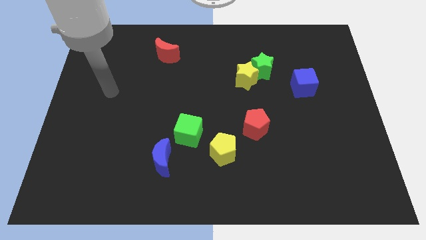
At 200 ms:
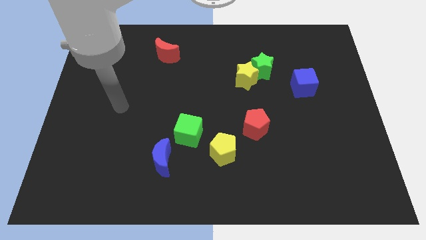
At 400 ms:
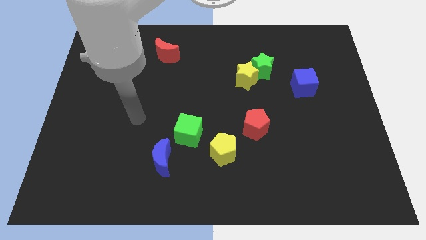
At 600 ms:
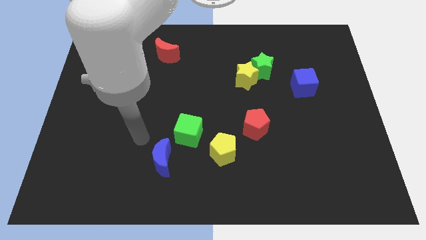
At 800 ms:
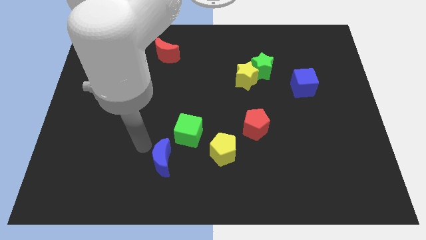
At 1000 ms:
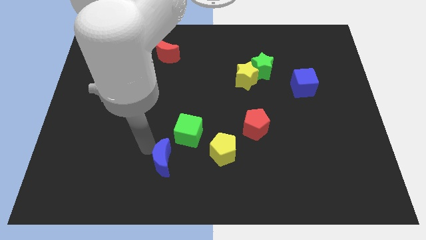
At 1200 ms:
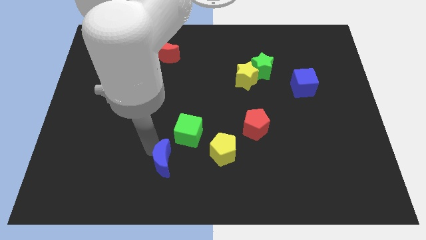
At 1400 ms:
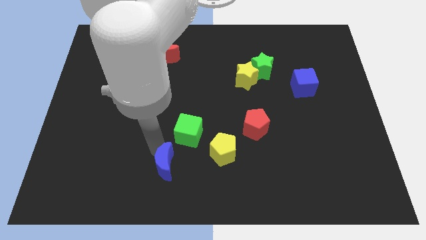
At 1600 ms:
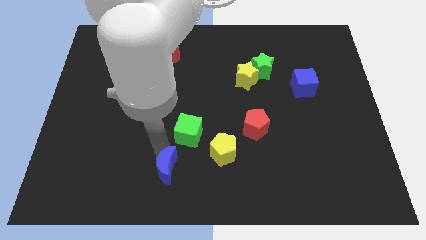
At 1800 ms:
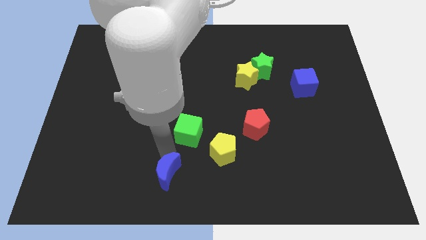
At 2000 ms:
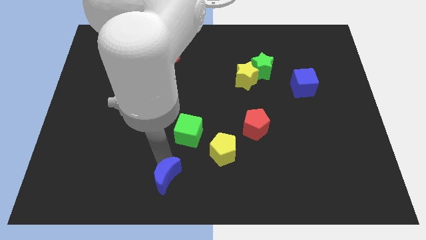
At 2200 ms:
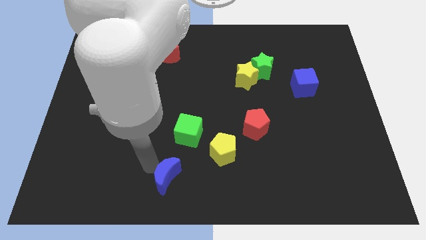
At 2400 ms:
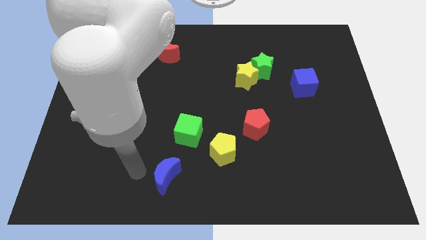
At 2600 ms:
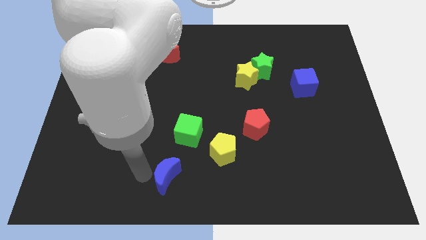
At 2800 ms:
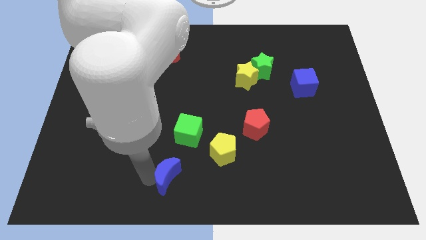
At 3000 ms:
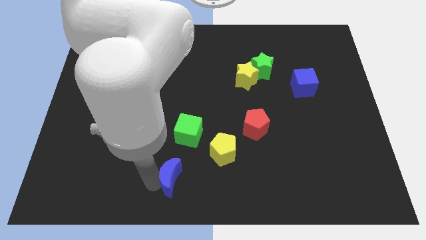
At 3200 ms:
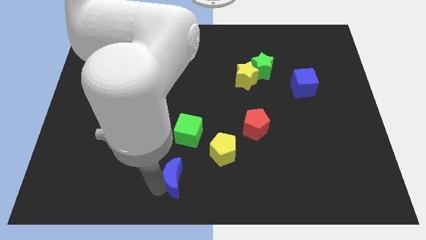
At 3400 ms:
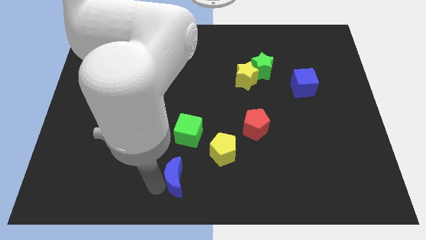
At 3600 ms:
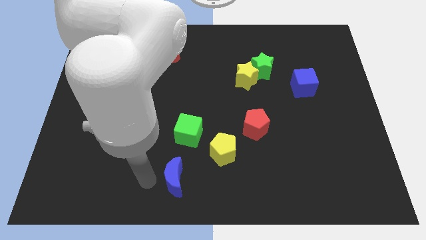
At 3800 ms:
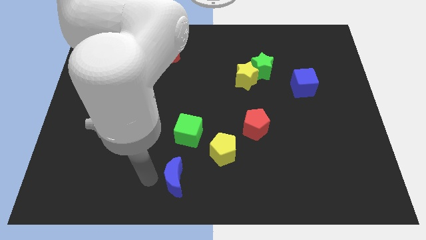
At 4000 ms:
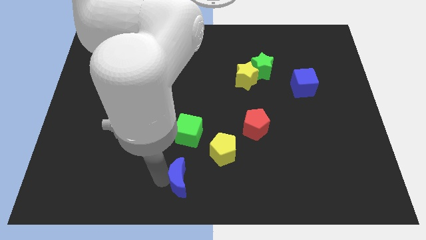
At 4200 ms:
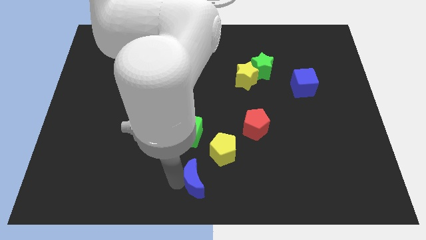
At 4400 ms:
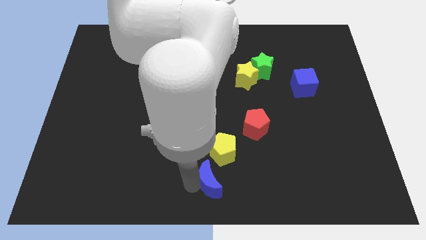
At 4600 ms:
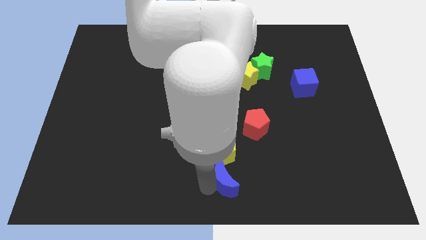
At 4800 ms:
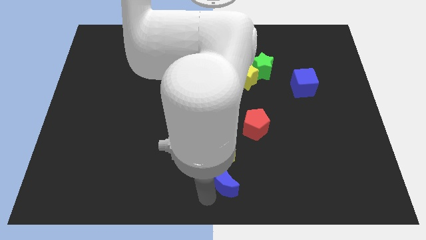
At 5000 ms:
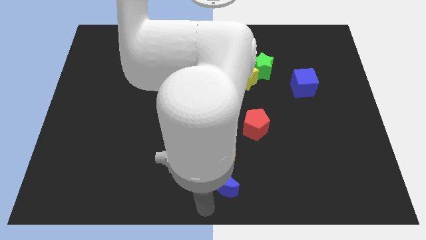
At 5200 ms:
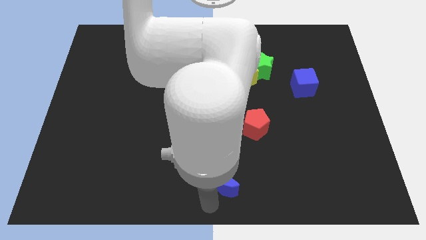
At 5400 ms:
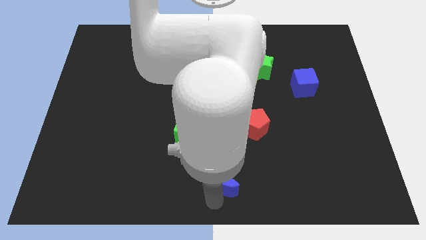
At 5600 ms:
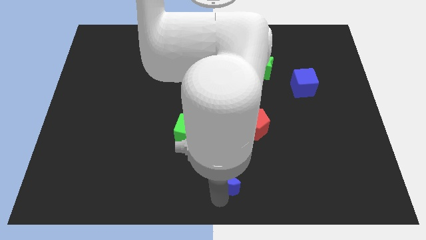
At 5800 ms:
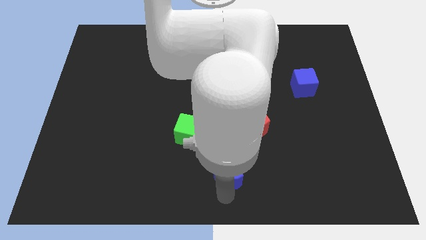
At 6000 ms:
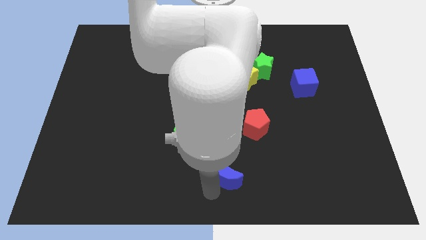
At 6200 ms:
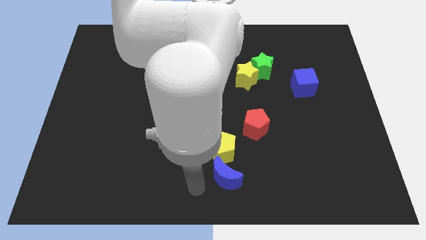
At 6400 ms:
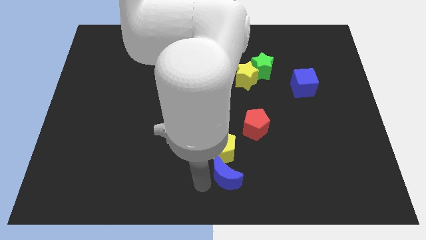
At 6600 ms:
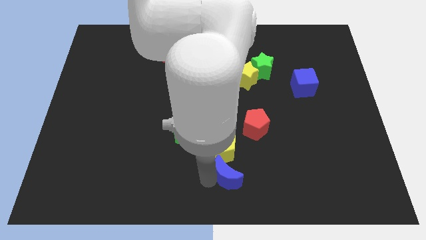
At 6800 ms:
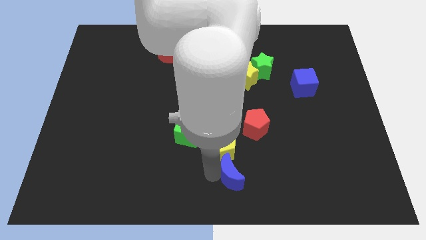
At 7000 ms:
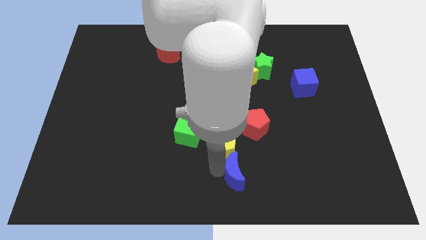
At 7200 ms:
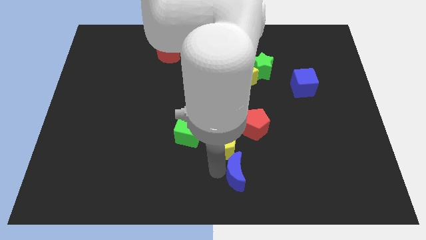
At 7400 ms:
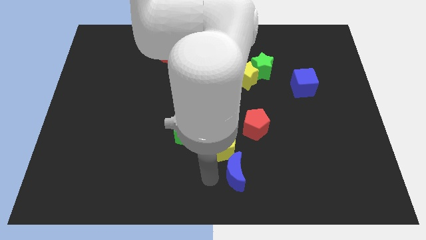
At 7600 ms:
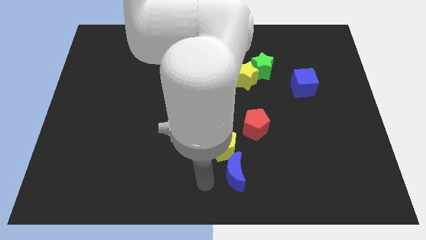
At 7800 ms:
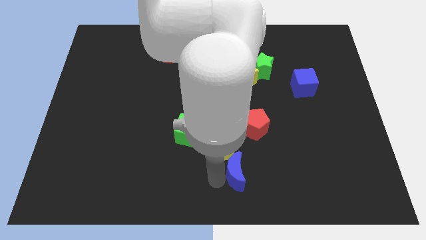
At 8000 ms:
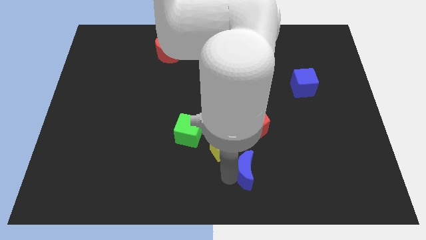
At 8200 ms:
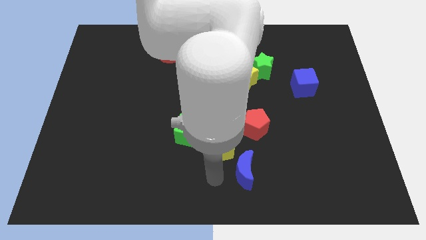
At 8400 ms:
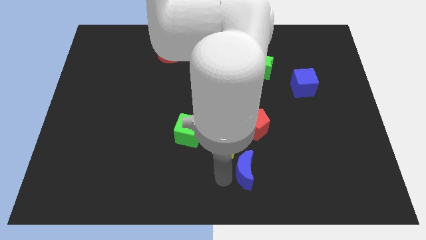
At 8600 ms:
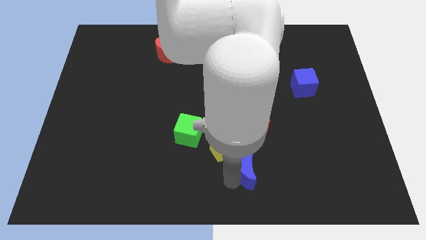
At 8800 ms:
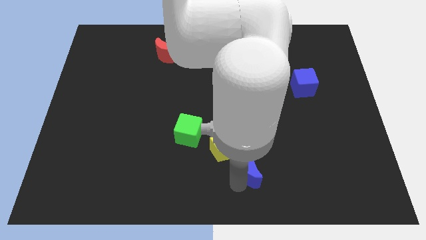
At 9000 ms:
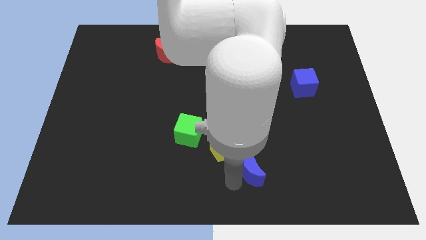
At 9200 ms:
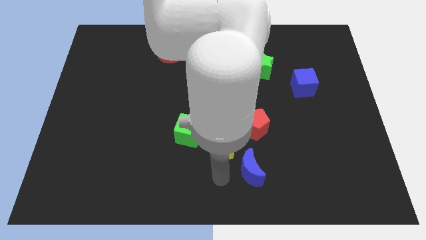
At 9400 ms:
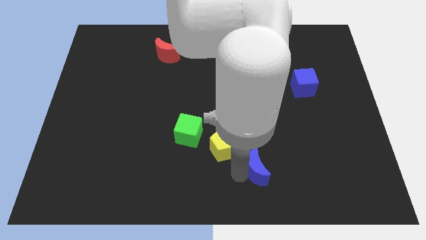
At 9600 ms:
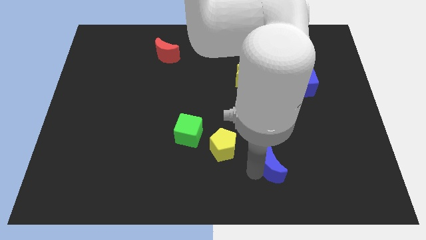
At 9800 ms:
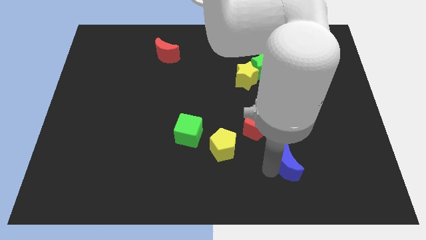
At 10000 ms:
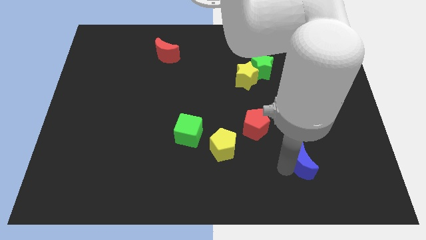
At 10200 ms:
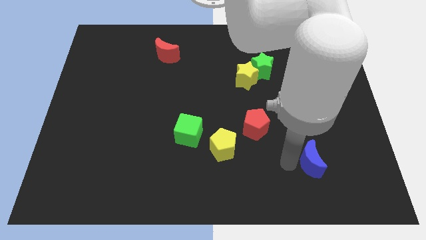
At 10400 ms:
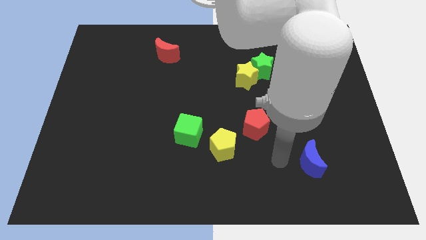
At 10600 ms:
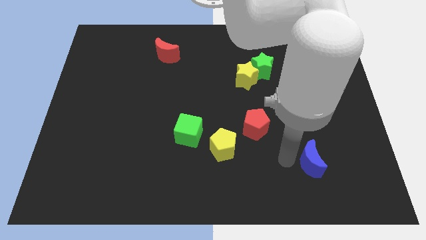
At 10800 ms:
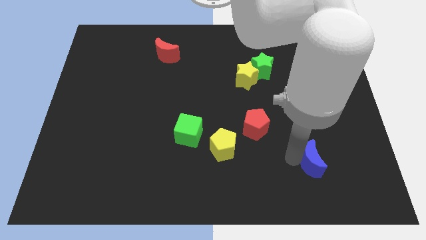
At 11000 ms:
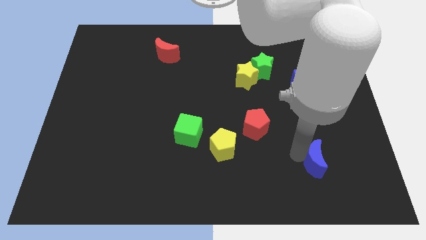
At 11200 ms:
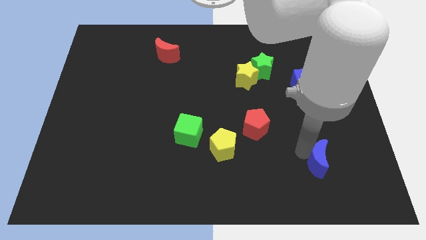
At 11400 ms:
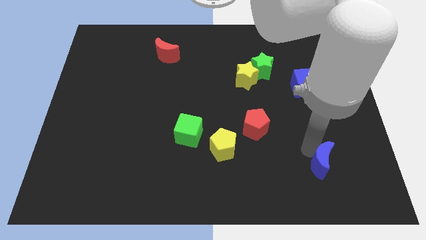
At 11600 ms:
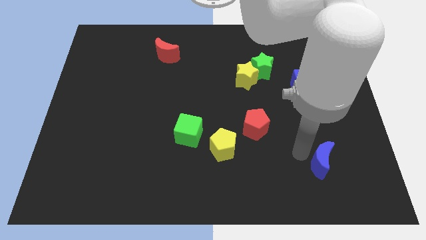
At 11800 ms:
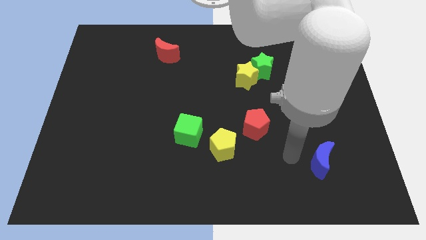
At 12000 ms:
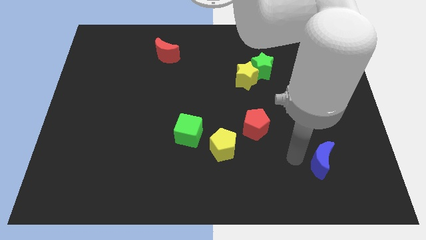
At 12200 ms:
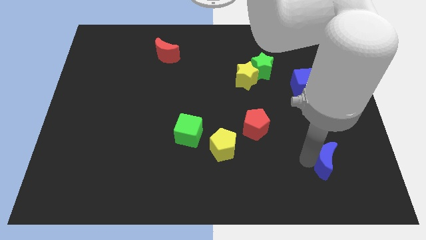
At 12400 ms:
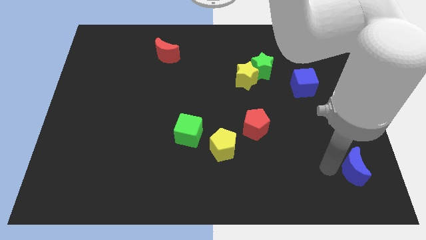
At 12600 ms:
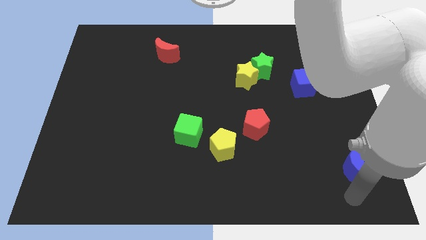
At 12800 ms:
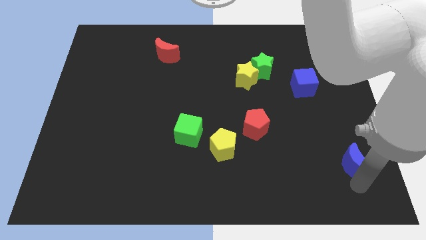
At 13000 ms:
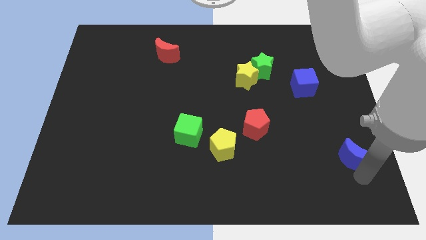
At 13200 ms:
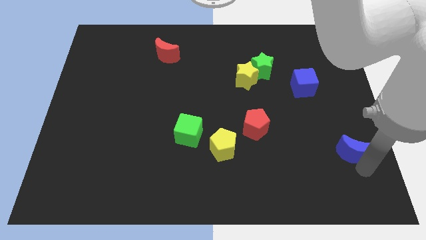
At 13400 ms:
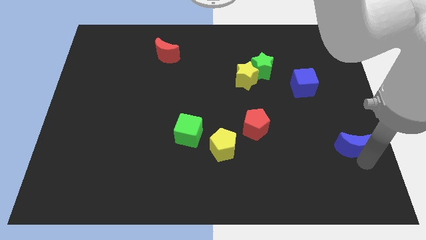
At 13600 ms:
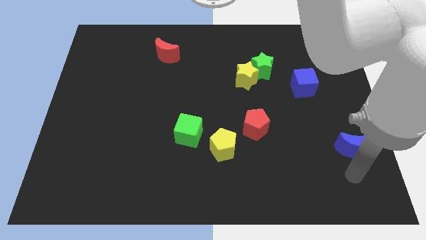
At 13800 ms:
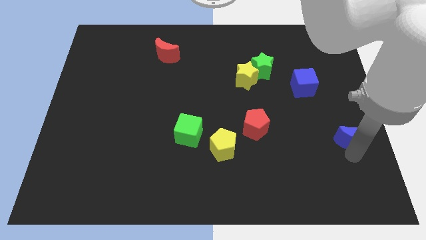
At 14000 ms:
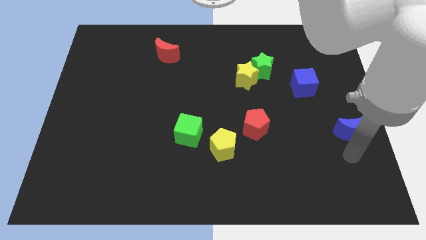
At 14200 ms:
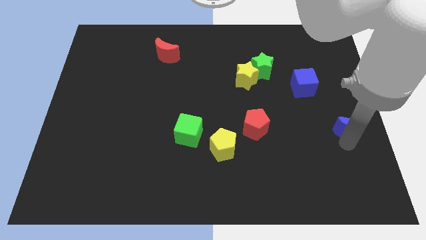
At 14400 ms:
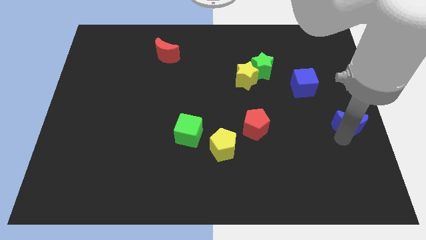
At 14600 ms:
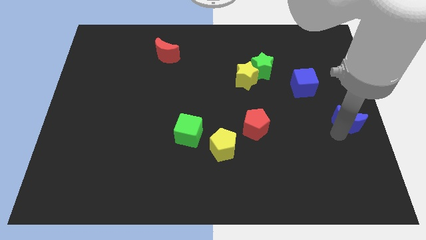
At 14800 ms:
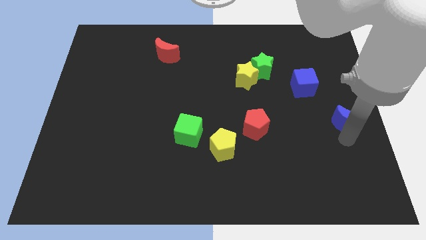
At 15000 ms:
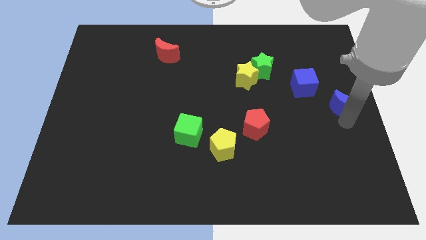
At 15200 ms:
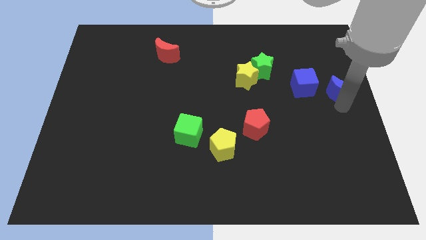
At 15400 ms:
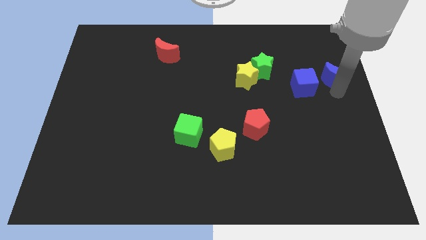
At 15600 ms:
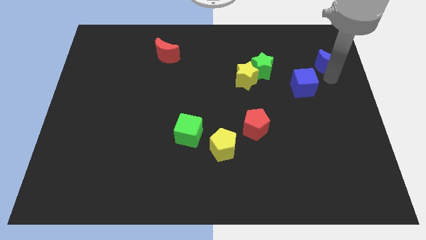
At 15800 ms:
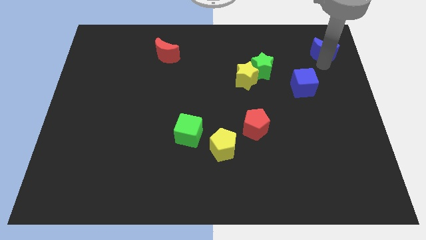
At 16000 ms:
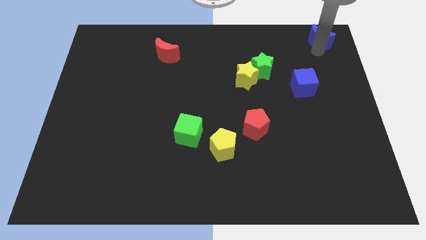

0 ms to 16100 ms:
move the blue moon to the top right of the board
